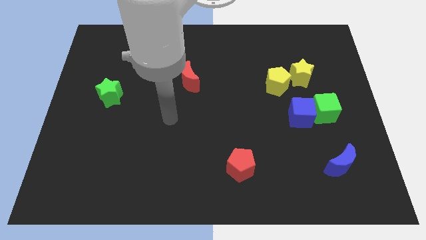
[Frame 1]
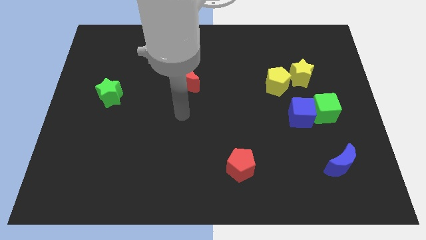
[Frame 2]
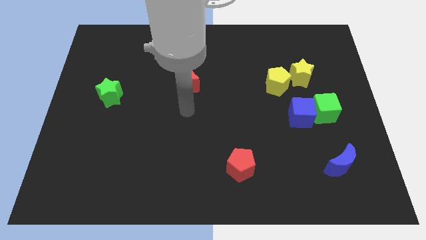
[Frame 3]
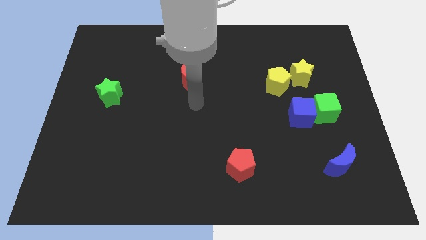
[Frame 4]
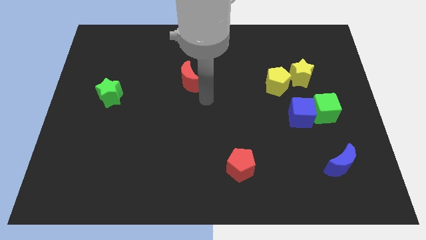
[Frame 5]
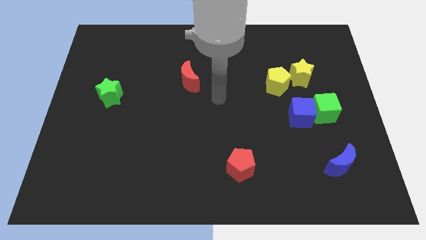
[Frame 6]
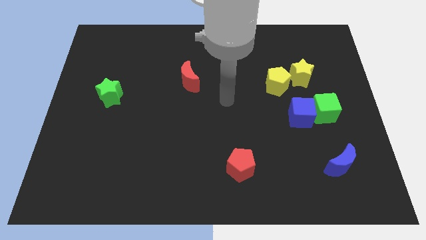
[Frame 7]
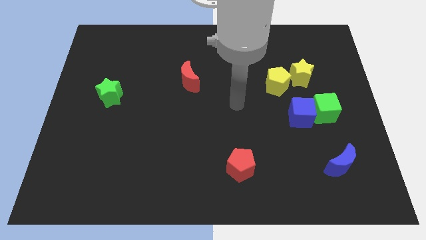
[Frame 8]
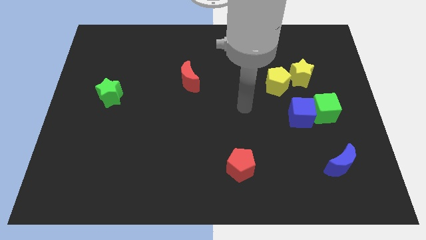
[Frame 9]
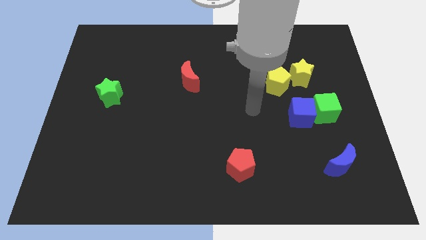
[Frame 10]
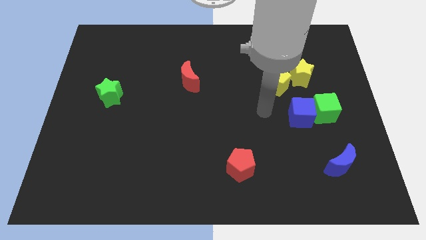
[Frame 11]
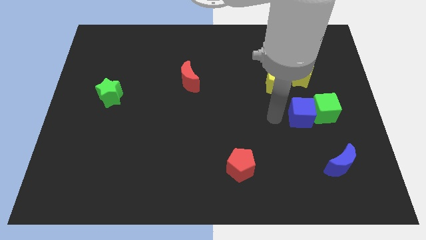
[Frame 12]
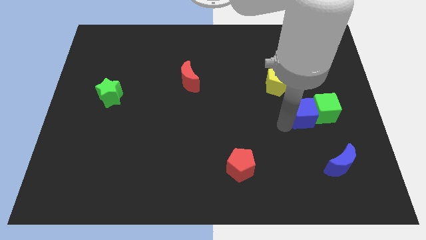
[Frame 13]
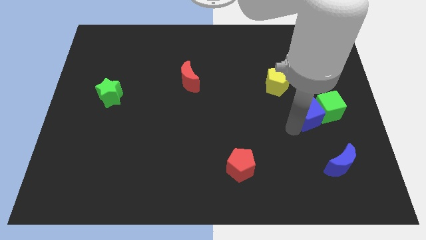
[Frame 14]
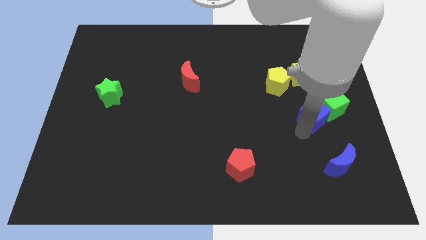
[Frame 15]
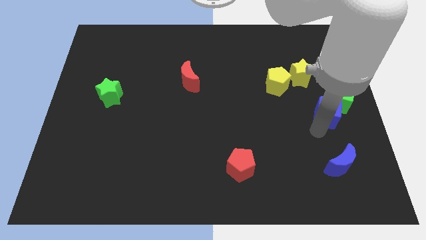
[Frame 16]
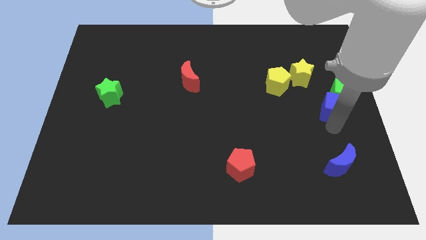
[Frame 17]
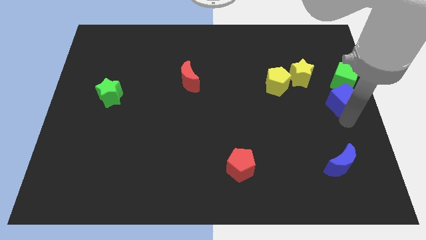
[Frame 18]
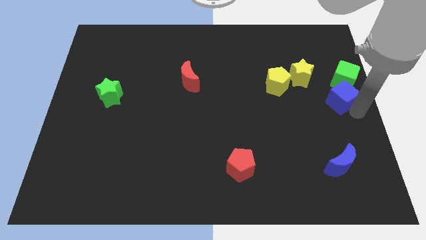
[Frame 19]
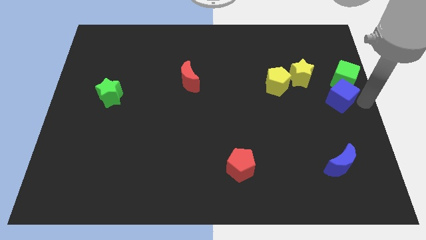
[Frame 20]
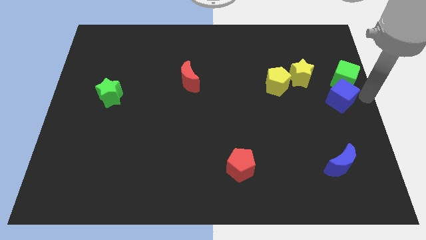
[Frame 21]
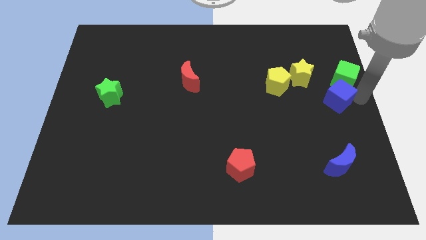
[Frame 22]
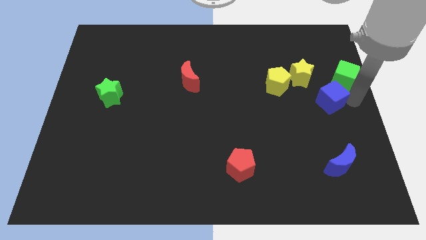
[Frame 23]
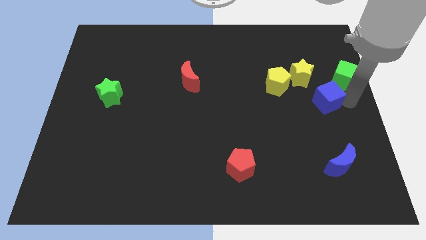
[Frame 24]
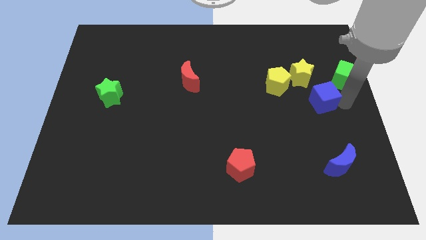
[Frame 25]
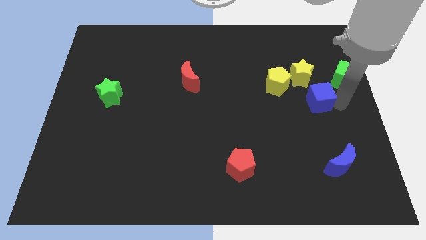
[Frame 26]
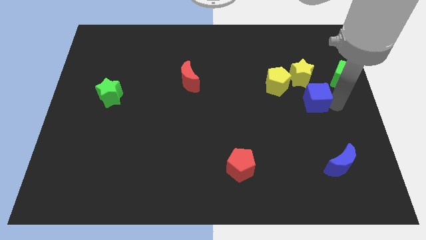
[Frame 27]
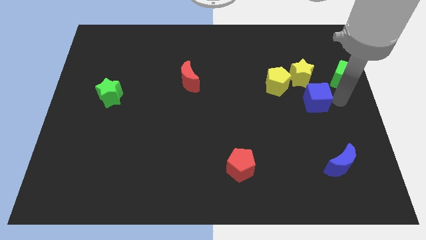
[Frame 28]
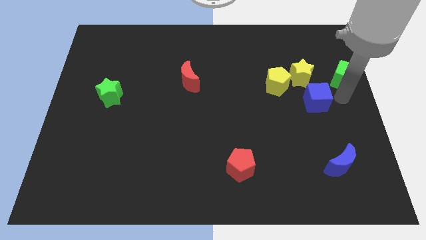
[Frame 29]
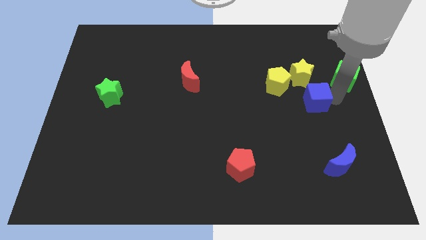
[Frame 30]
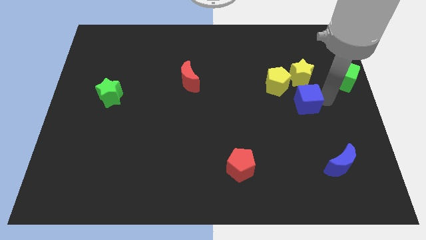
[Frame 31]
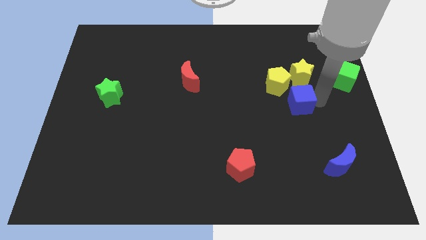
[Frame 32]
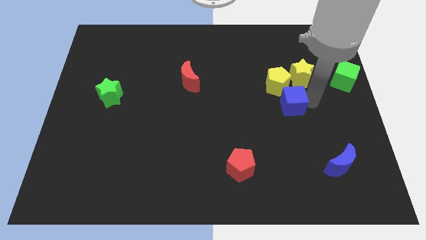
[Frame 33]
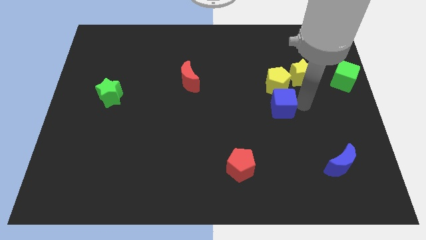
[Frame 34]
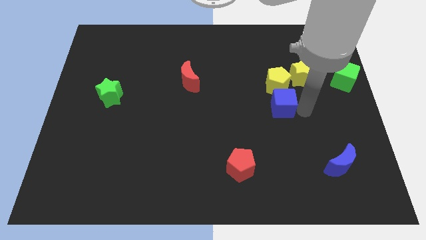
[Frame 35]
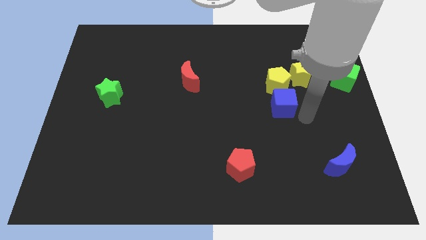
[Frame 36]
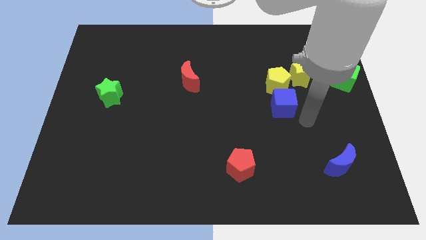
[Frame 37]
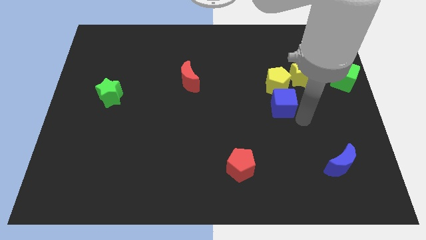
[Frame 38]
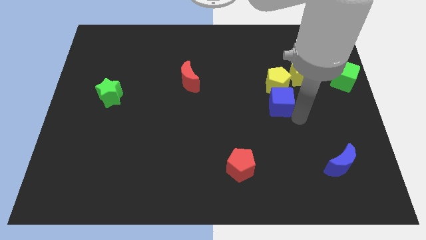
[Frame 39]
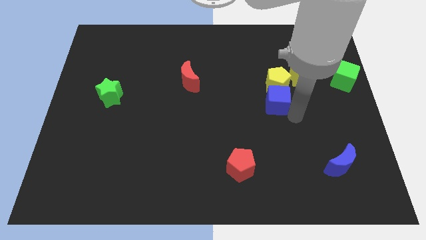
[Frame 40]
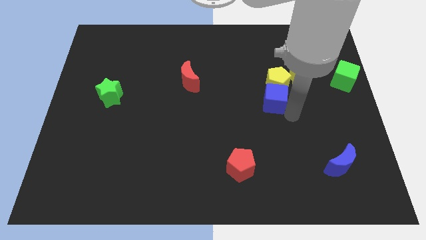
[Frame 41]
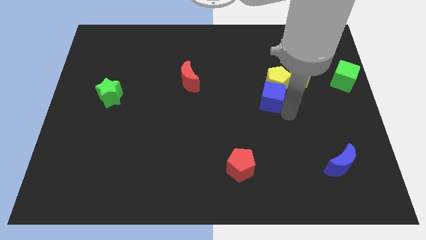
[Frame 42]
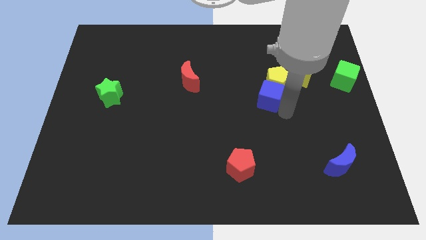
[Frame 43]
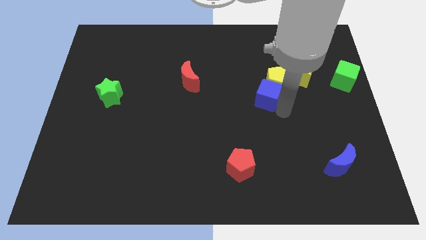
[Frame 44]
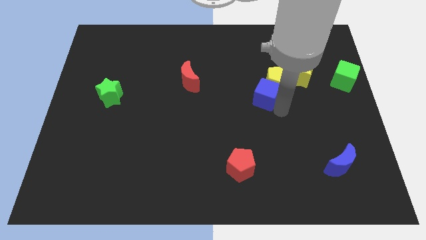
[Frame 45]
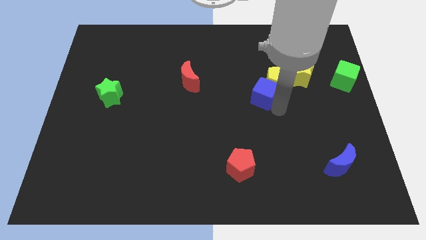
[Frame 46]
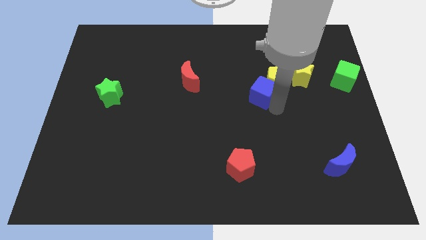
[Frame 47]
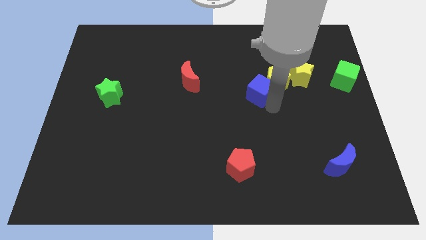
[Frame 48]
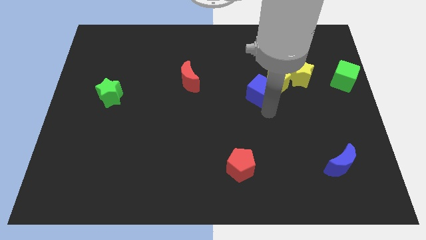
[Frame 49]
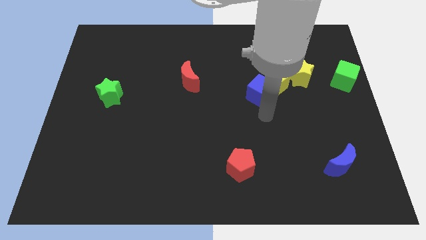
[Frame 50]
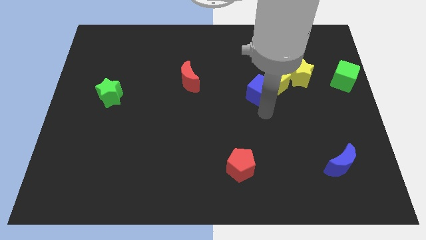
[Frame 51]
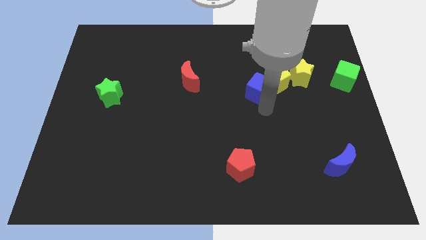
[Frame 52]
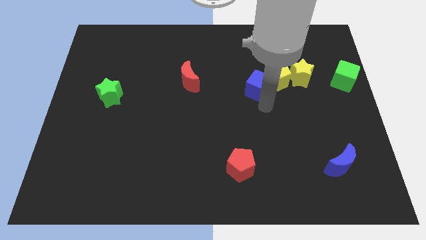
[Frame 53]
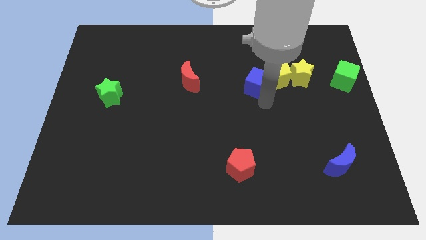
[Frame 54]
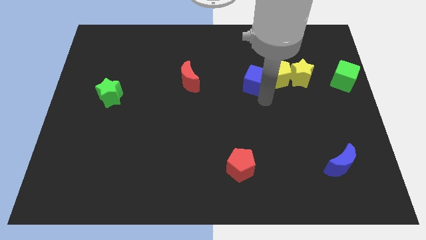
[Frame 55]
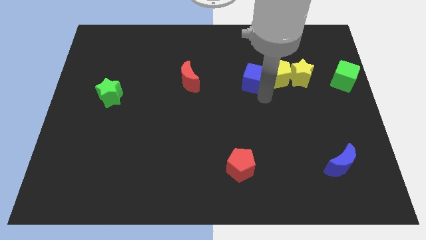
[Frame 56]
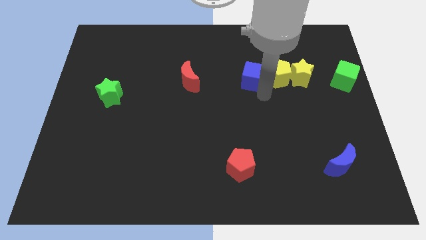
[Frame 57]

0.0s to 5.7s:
move the blue cube to the top left of the yellow pentagon

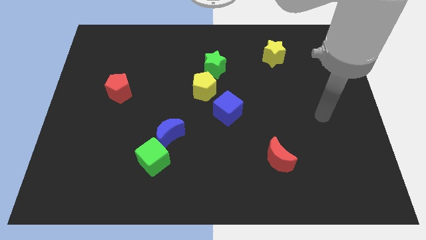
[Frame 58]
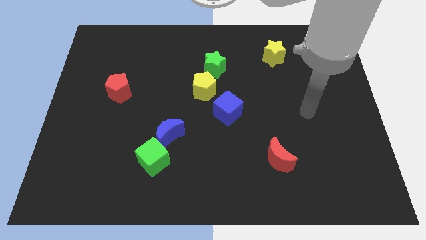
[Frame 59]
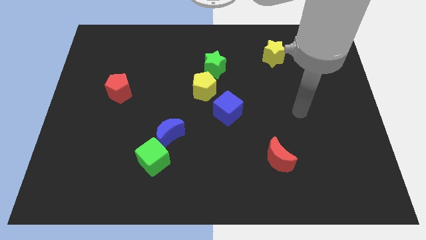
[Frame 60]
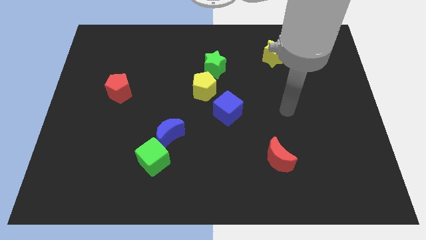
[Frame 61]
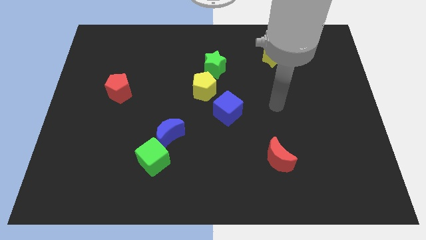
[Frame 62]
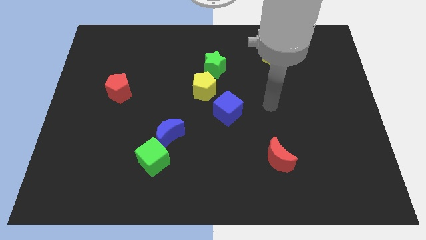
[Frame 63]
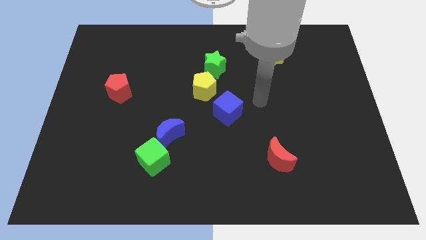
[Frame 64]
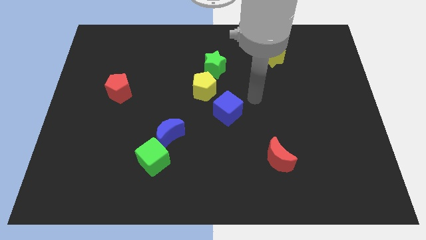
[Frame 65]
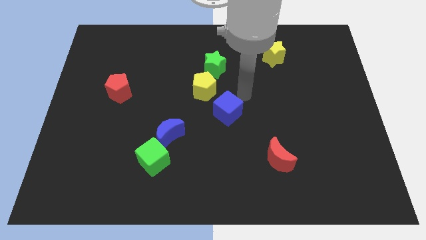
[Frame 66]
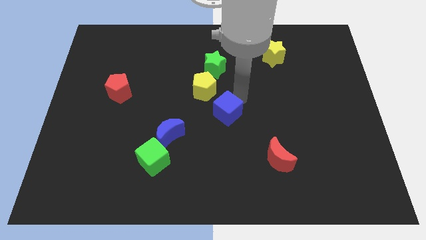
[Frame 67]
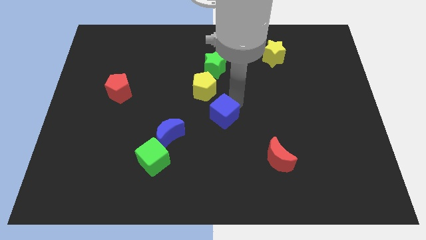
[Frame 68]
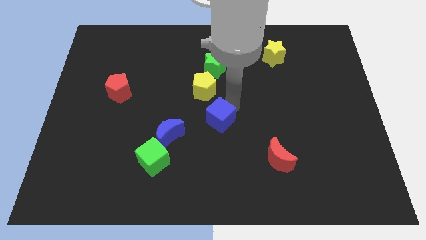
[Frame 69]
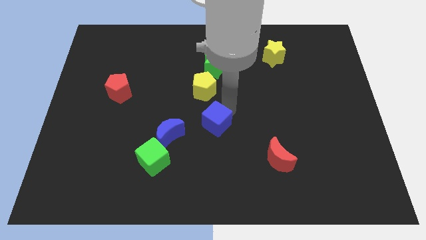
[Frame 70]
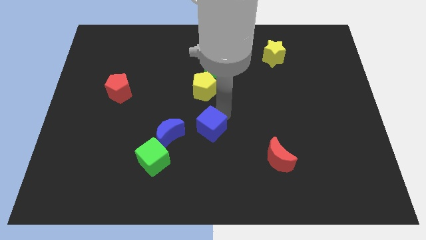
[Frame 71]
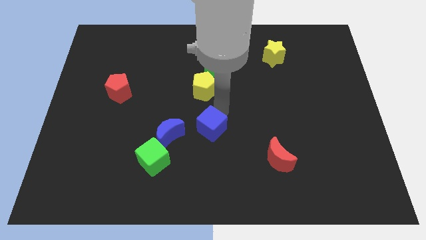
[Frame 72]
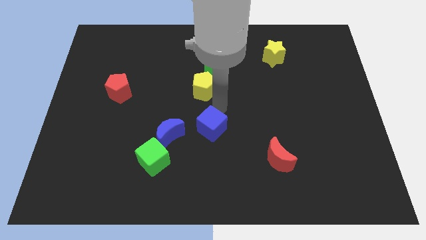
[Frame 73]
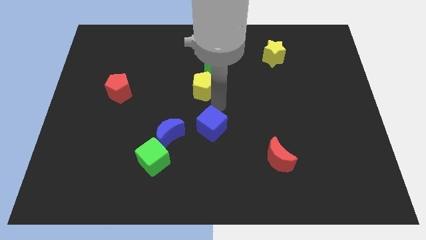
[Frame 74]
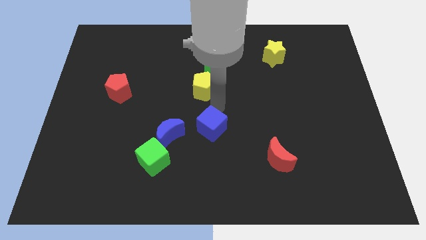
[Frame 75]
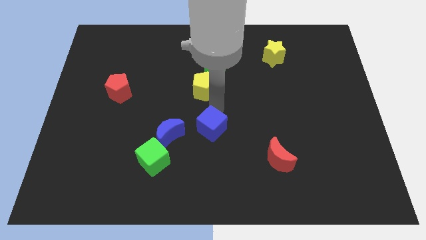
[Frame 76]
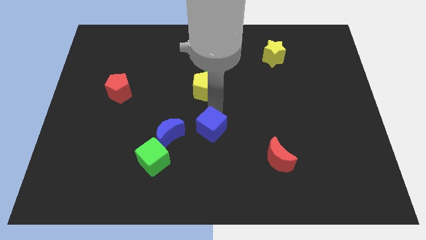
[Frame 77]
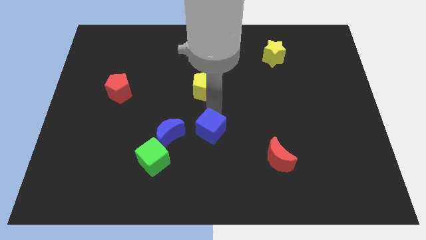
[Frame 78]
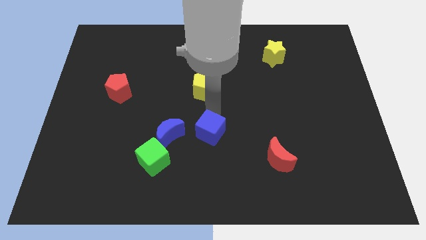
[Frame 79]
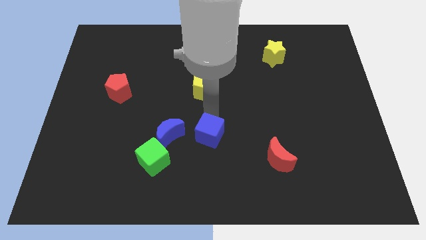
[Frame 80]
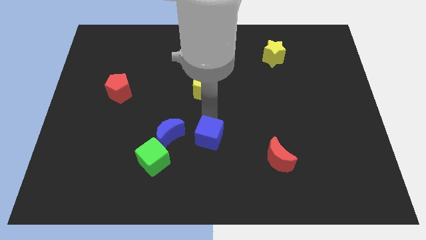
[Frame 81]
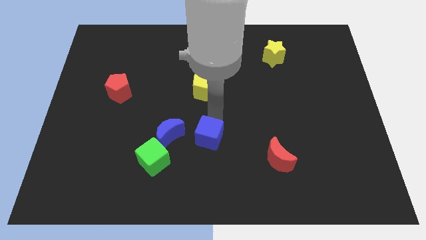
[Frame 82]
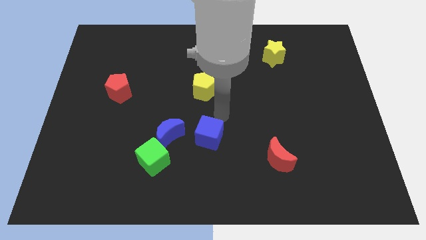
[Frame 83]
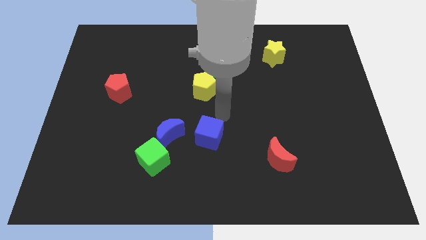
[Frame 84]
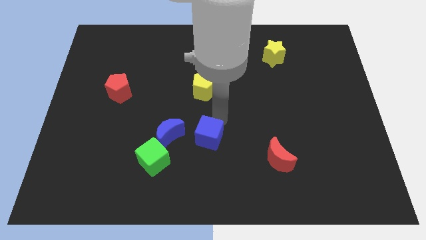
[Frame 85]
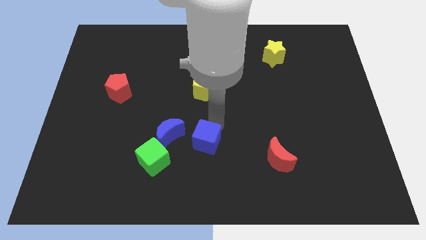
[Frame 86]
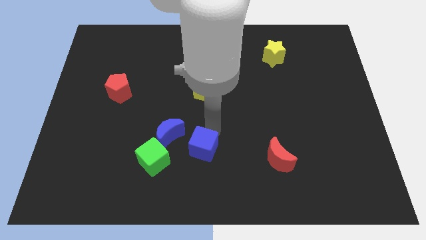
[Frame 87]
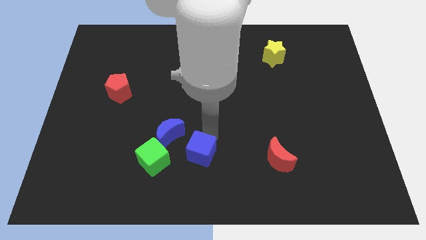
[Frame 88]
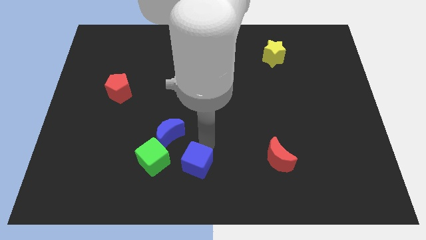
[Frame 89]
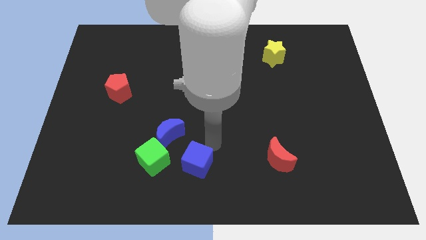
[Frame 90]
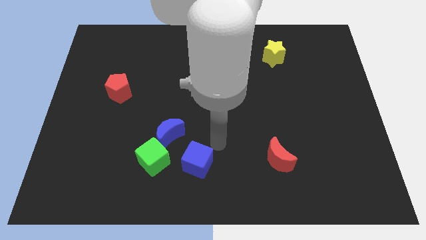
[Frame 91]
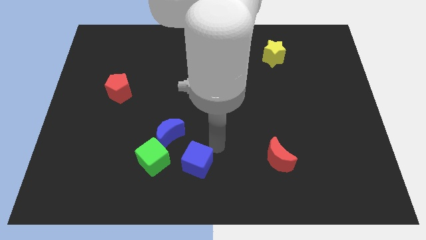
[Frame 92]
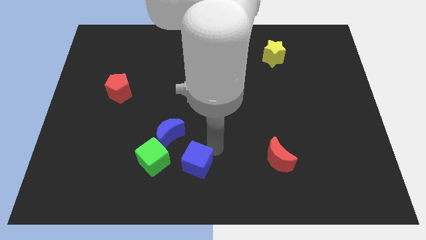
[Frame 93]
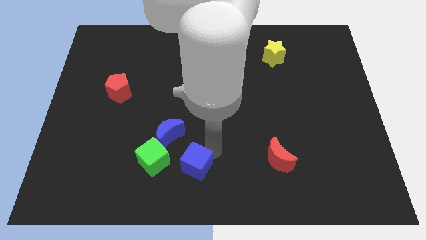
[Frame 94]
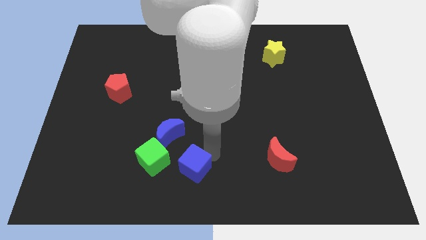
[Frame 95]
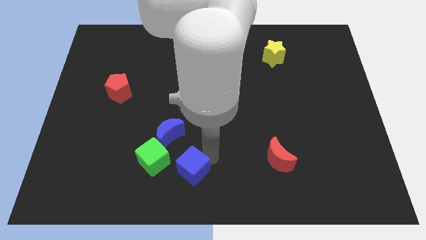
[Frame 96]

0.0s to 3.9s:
slide the blue cube to the bottom right side of the green cube
